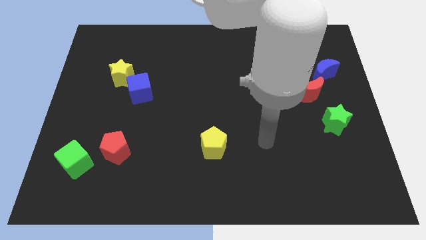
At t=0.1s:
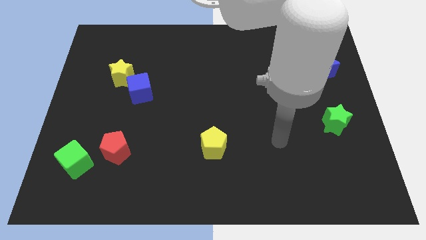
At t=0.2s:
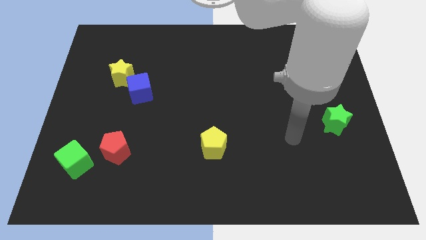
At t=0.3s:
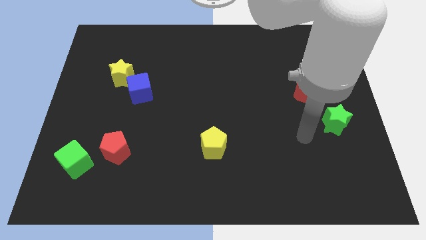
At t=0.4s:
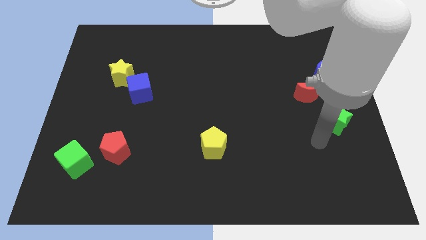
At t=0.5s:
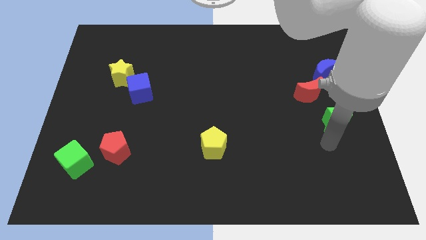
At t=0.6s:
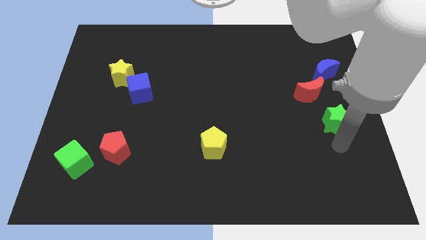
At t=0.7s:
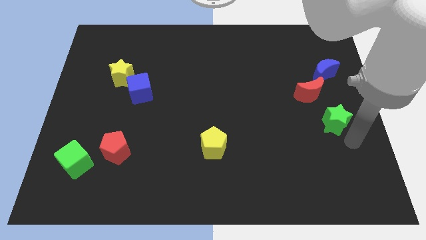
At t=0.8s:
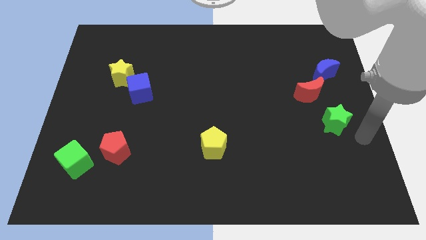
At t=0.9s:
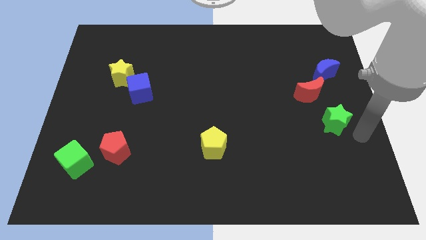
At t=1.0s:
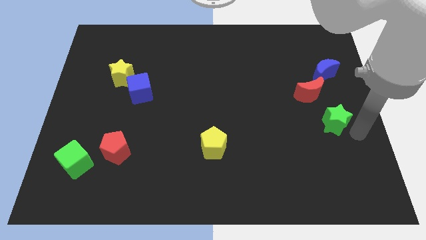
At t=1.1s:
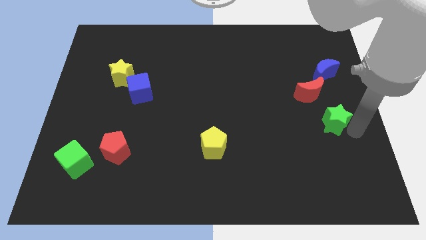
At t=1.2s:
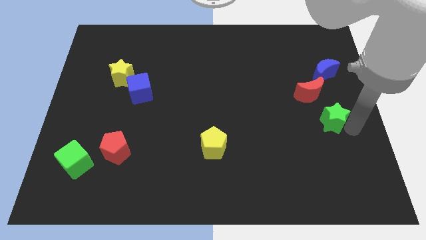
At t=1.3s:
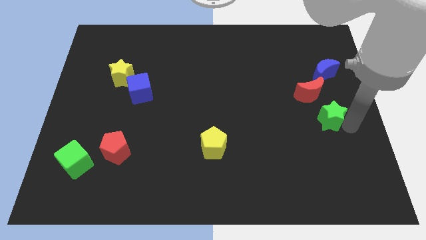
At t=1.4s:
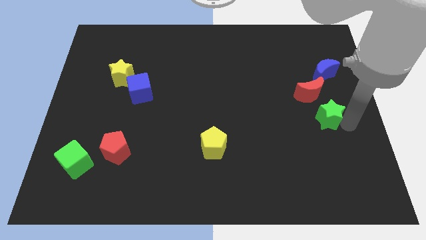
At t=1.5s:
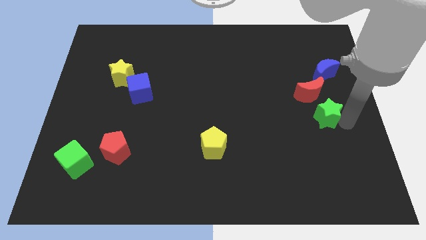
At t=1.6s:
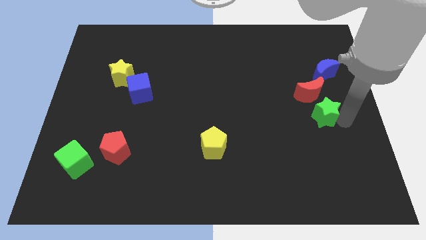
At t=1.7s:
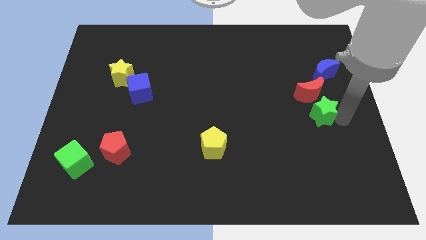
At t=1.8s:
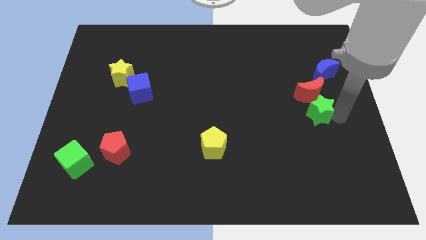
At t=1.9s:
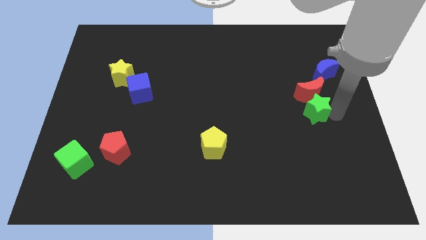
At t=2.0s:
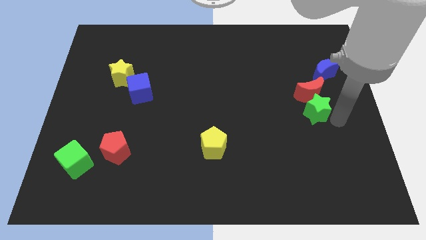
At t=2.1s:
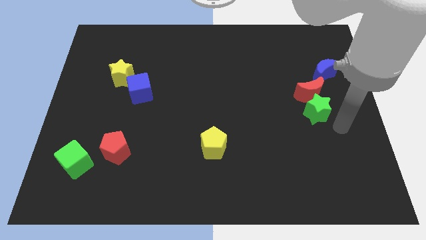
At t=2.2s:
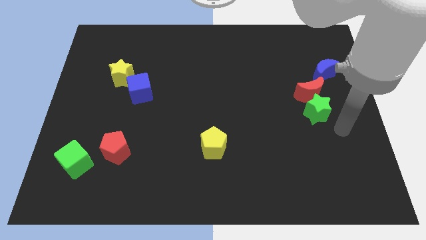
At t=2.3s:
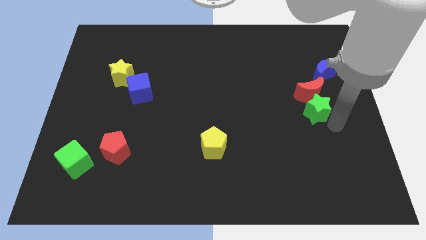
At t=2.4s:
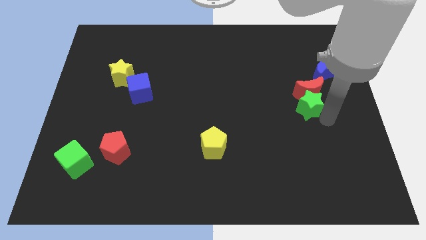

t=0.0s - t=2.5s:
slightly move the green star upwards and to the left

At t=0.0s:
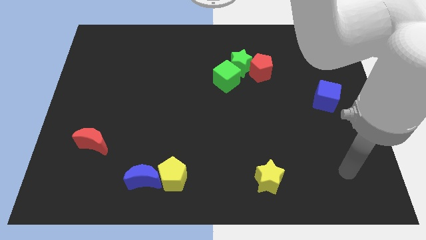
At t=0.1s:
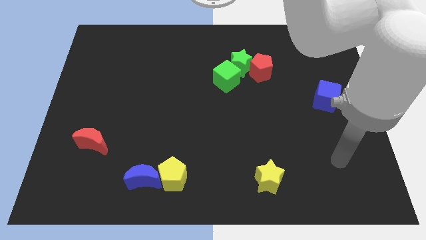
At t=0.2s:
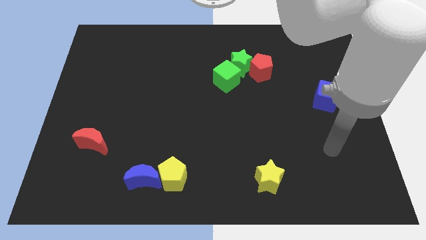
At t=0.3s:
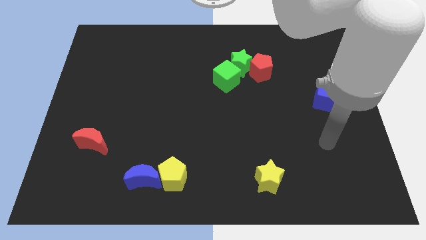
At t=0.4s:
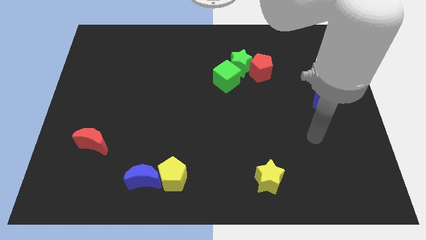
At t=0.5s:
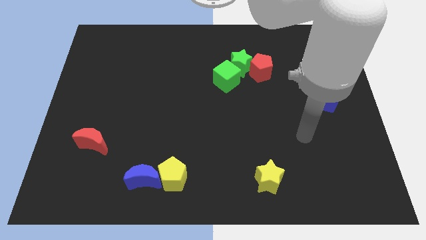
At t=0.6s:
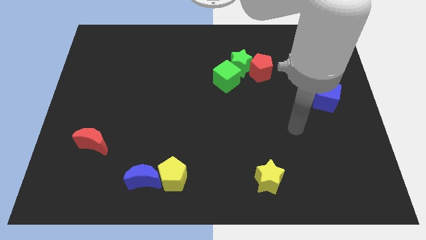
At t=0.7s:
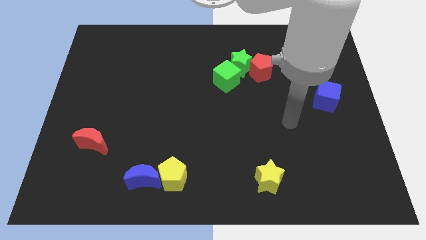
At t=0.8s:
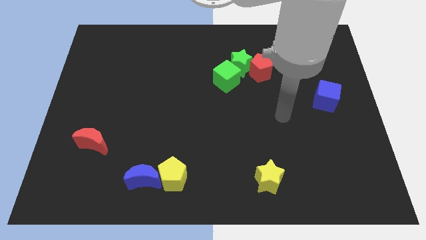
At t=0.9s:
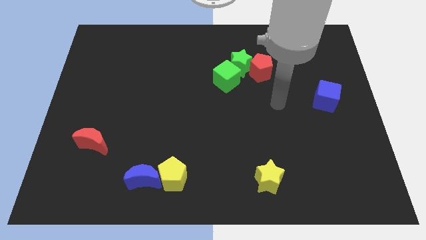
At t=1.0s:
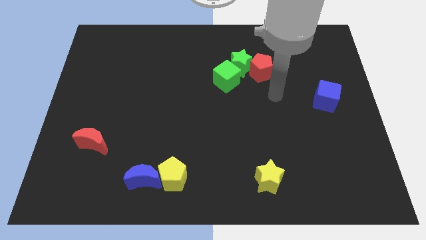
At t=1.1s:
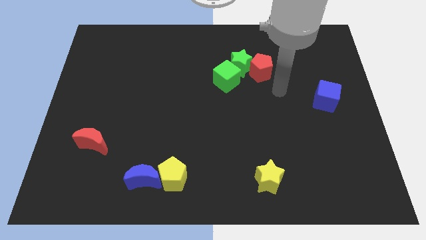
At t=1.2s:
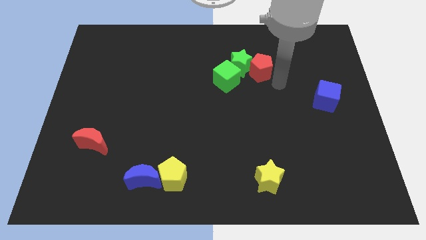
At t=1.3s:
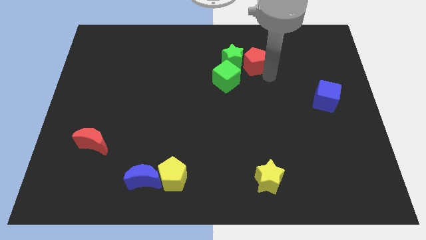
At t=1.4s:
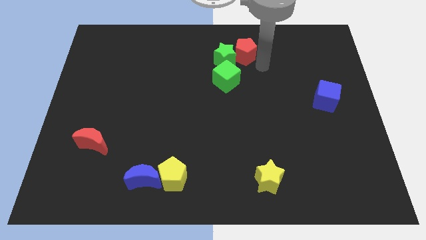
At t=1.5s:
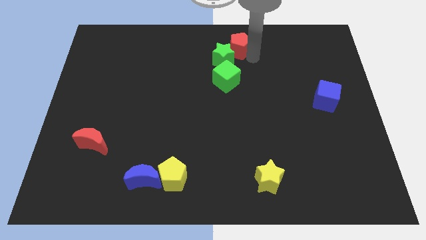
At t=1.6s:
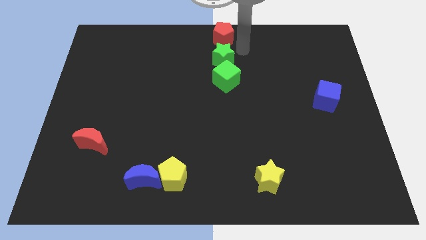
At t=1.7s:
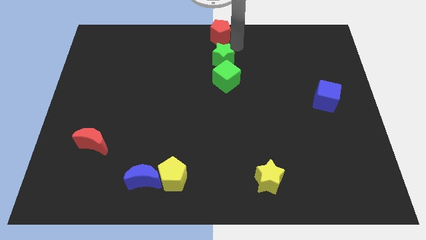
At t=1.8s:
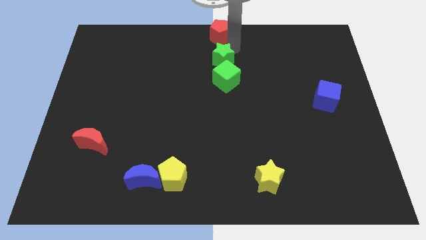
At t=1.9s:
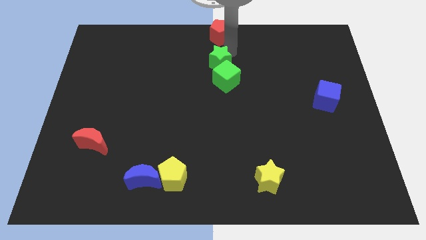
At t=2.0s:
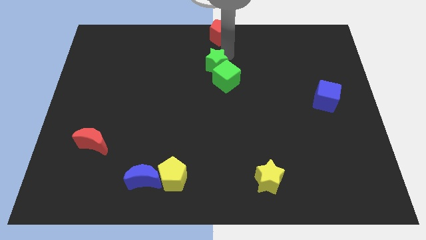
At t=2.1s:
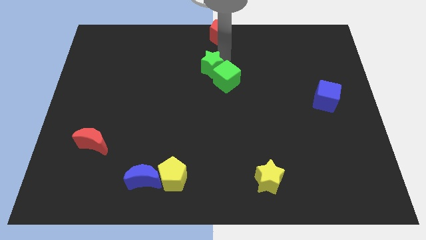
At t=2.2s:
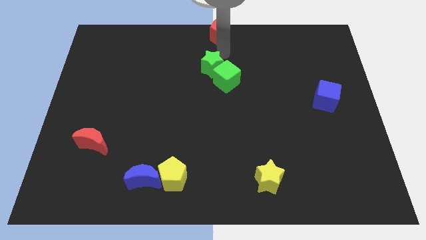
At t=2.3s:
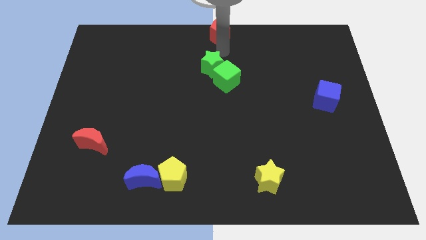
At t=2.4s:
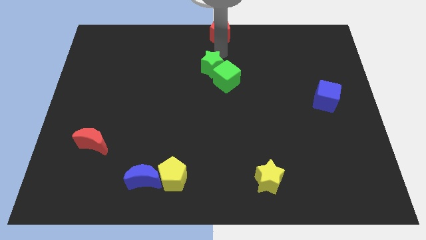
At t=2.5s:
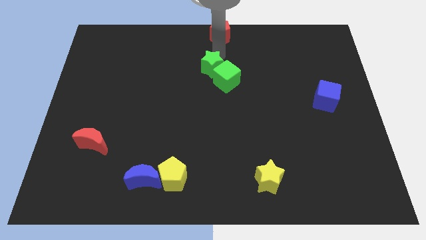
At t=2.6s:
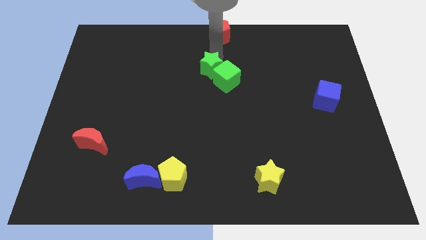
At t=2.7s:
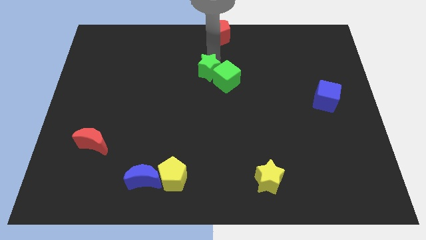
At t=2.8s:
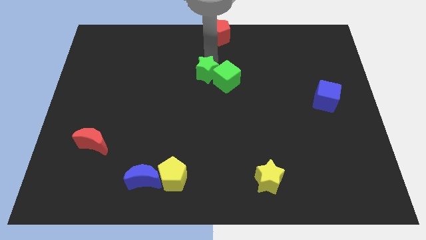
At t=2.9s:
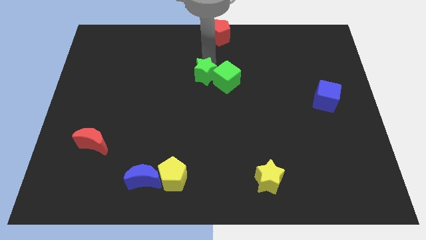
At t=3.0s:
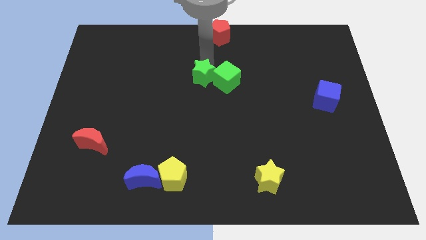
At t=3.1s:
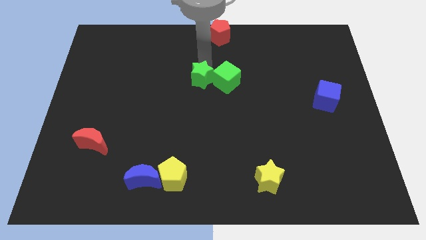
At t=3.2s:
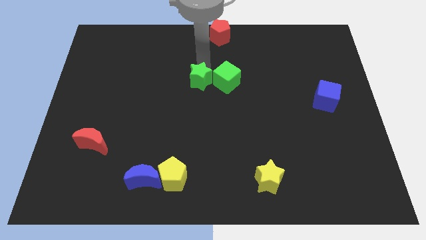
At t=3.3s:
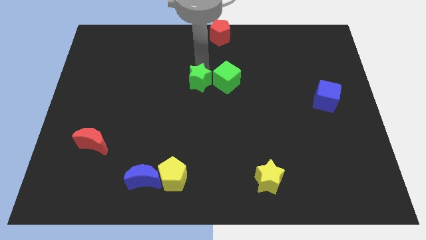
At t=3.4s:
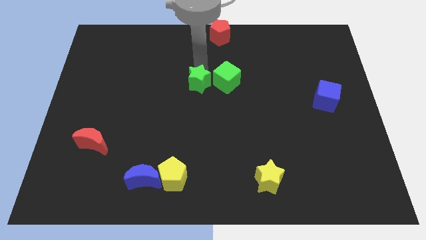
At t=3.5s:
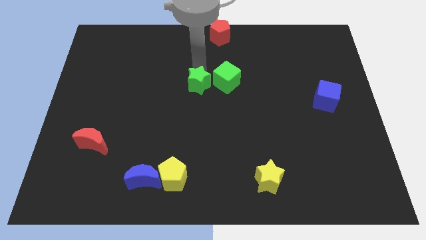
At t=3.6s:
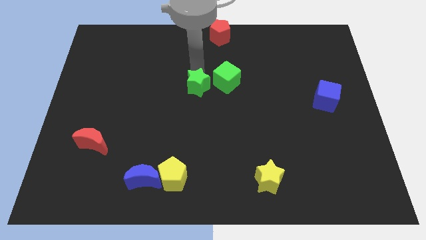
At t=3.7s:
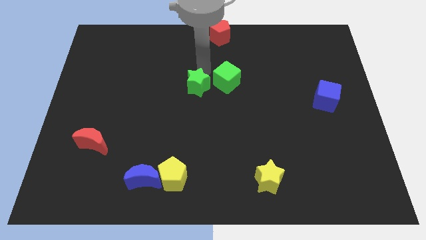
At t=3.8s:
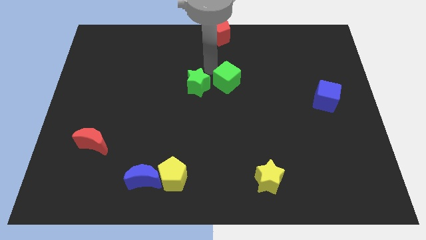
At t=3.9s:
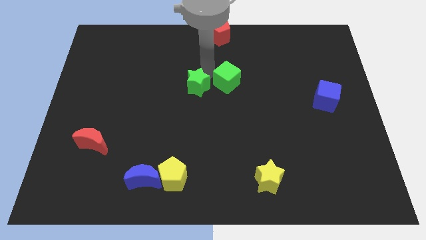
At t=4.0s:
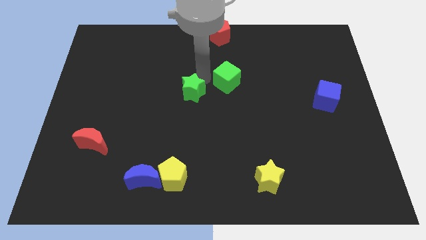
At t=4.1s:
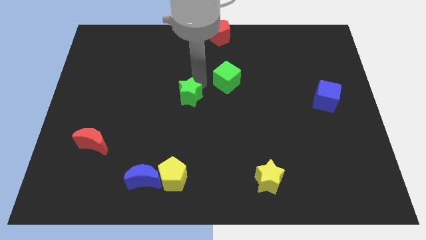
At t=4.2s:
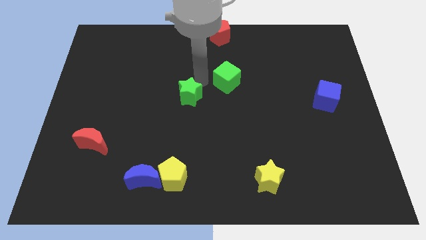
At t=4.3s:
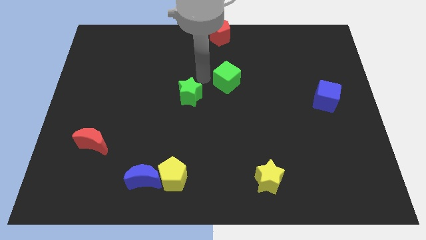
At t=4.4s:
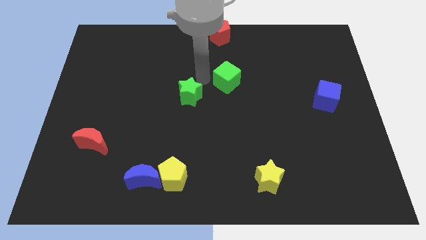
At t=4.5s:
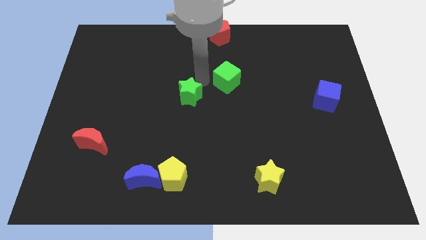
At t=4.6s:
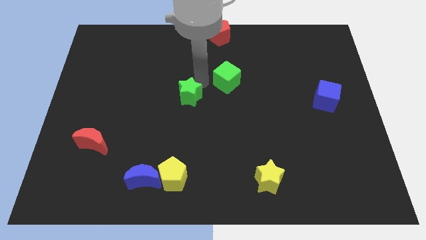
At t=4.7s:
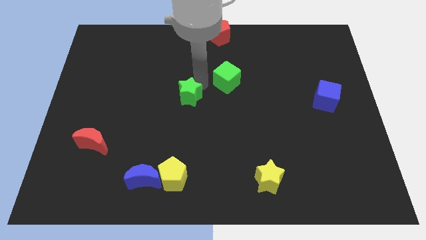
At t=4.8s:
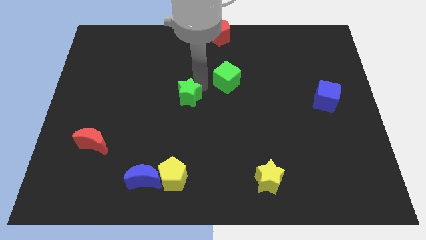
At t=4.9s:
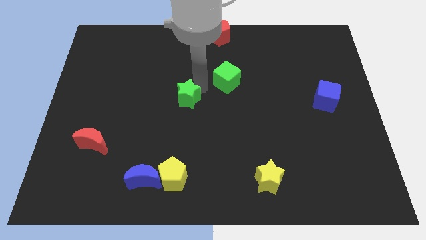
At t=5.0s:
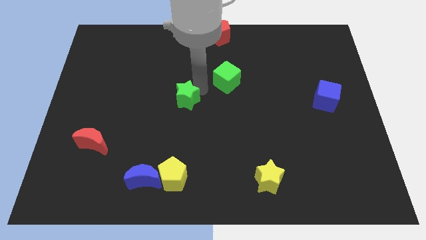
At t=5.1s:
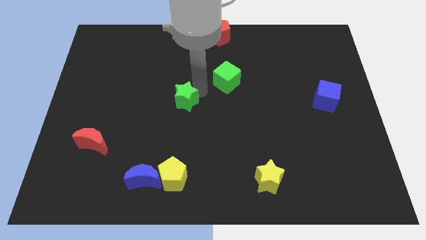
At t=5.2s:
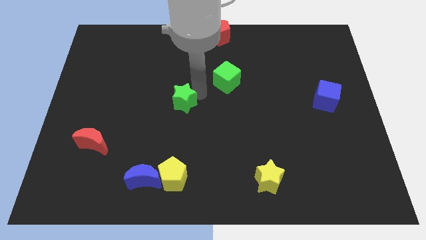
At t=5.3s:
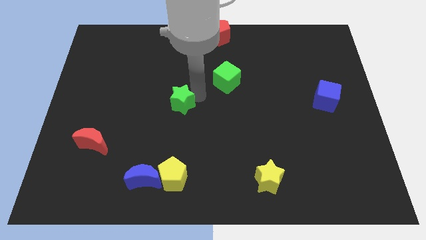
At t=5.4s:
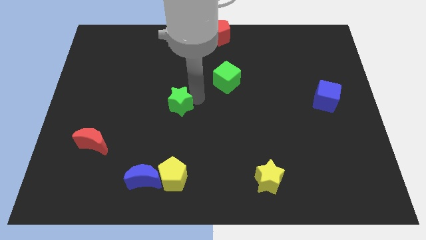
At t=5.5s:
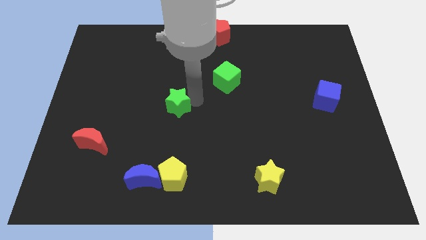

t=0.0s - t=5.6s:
move the green star down and then to the left
